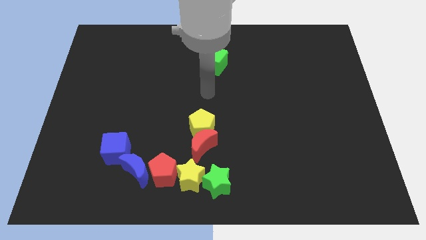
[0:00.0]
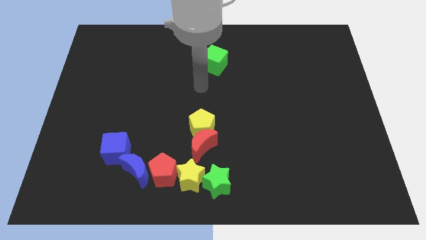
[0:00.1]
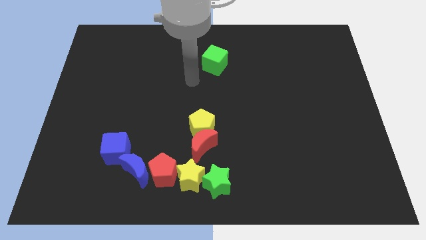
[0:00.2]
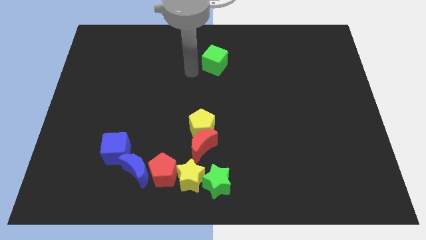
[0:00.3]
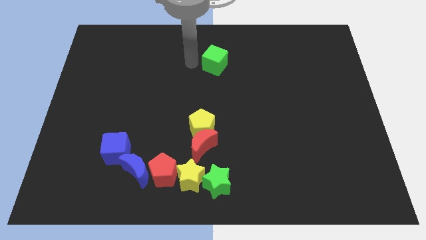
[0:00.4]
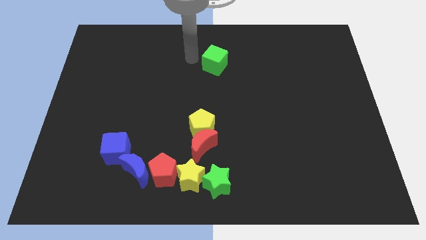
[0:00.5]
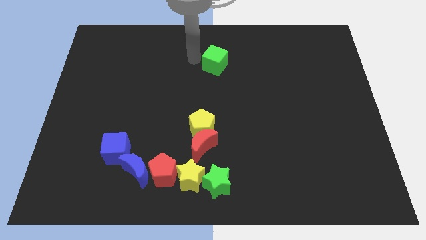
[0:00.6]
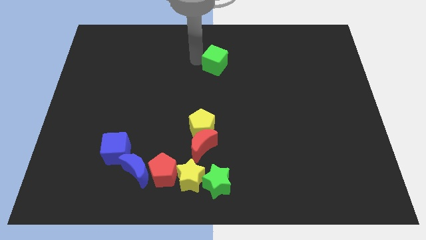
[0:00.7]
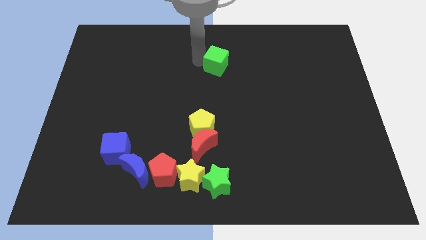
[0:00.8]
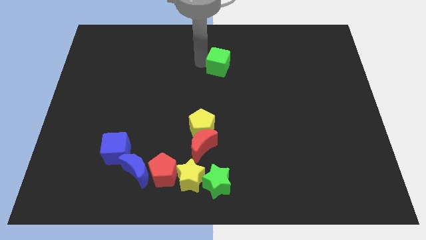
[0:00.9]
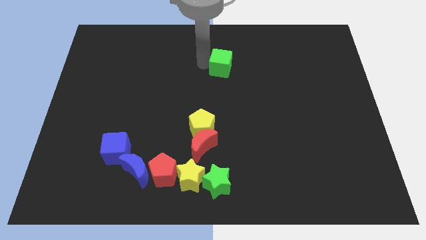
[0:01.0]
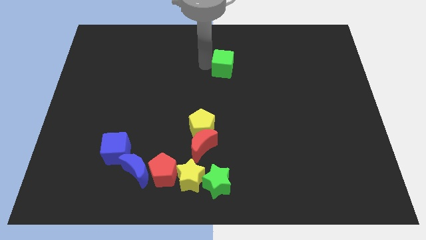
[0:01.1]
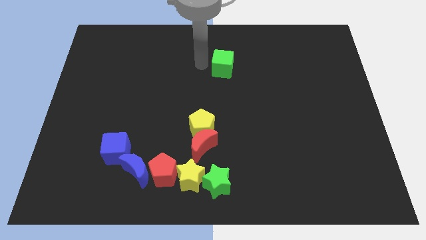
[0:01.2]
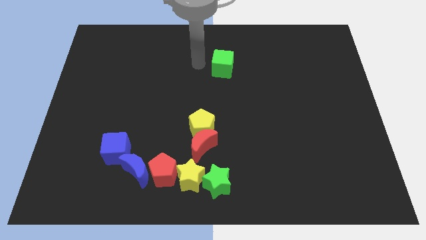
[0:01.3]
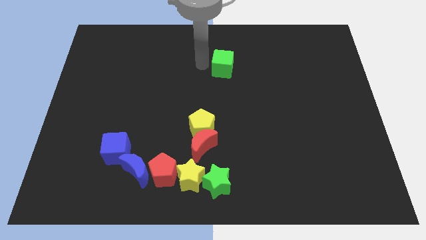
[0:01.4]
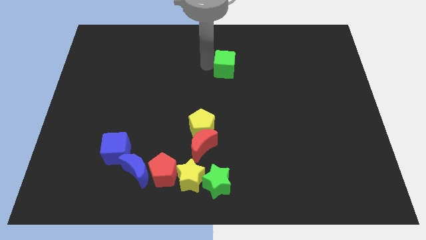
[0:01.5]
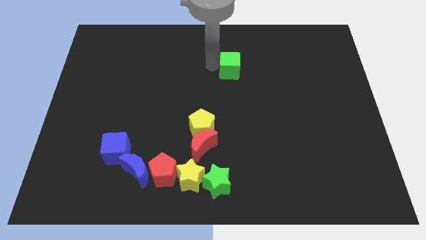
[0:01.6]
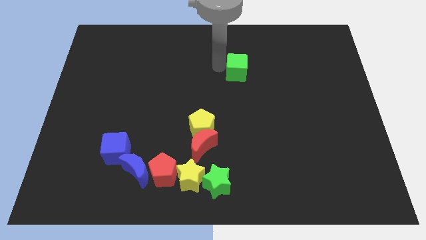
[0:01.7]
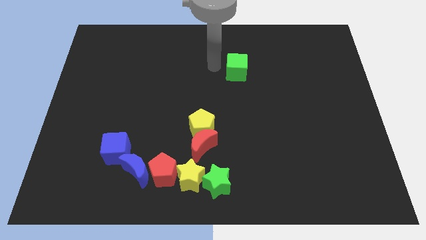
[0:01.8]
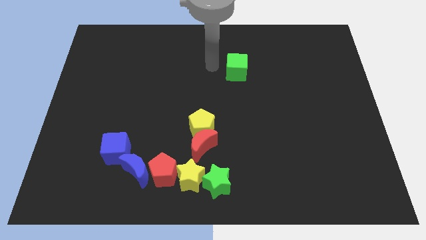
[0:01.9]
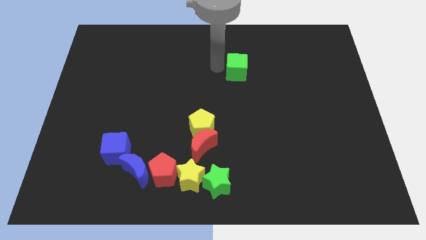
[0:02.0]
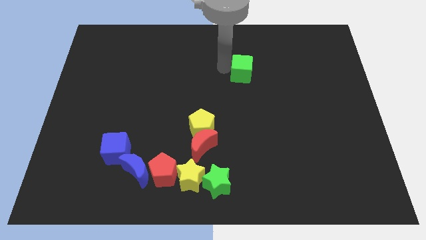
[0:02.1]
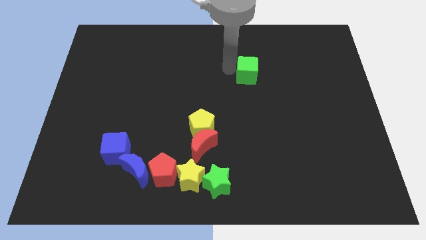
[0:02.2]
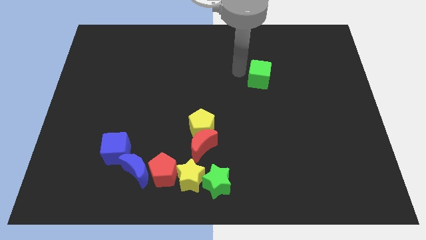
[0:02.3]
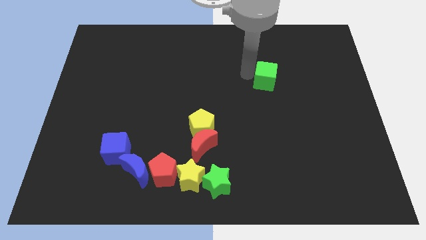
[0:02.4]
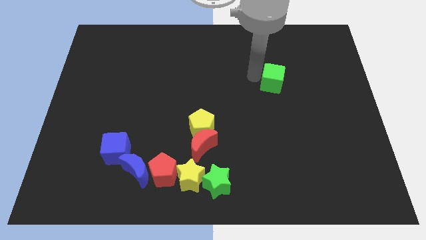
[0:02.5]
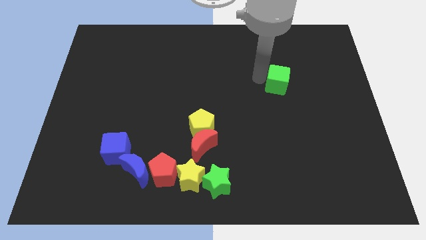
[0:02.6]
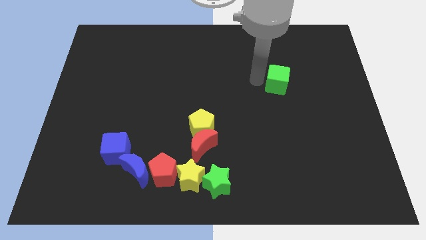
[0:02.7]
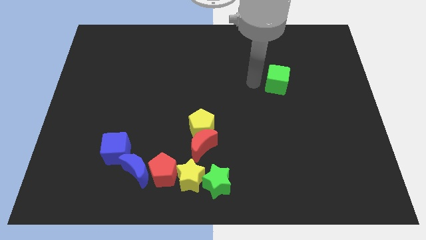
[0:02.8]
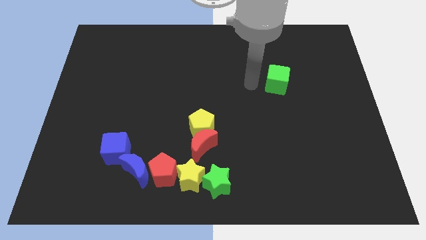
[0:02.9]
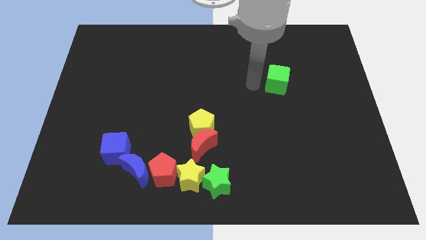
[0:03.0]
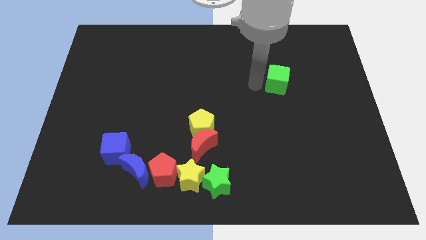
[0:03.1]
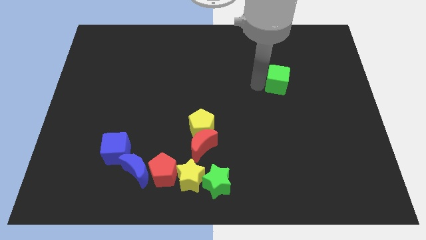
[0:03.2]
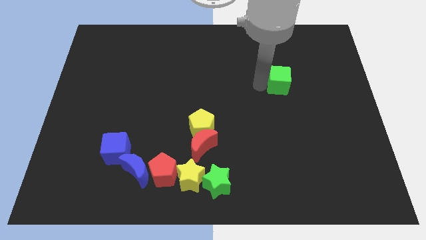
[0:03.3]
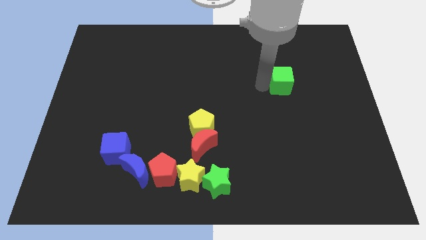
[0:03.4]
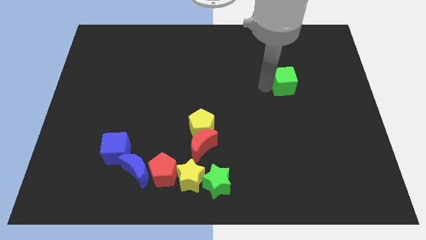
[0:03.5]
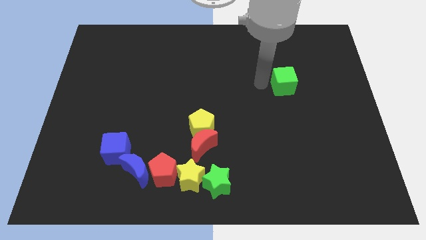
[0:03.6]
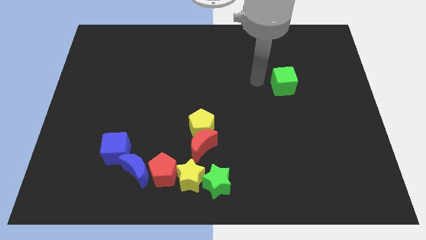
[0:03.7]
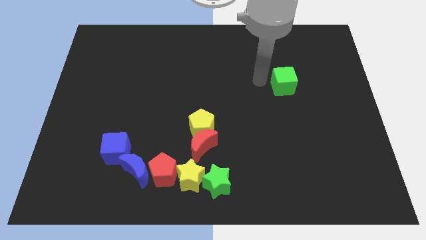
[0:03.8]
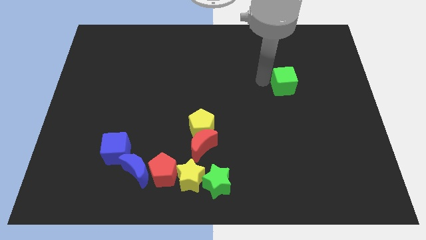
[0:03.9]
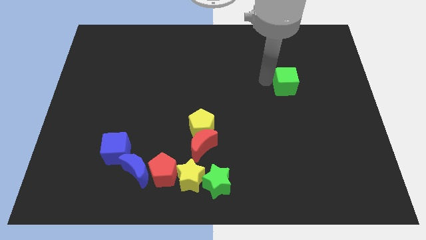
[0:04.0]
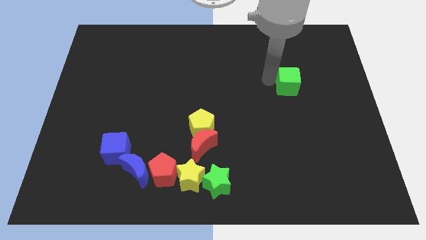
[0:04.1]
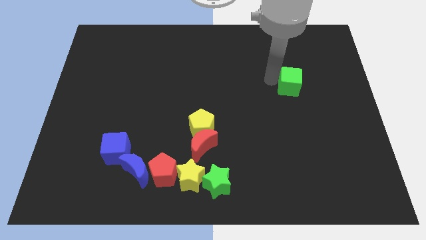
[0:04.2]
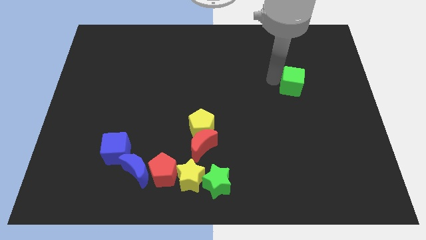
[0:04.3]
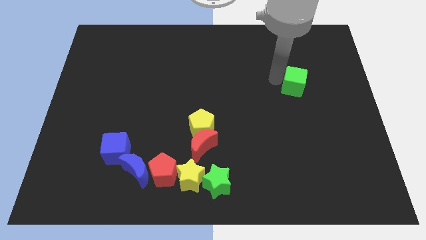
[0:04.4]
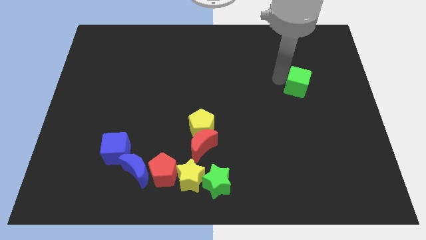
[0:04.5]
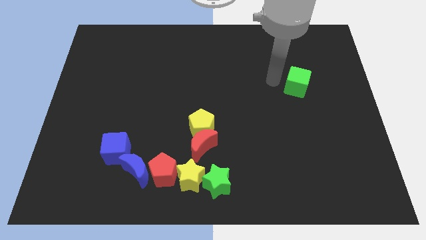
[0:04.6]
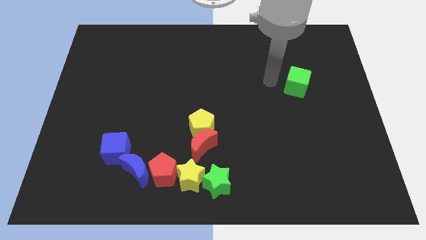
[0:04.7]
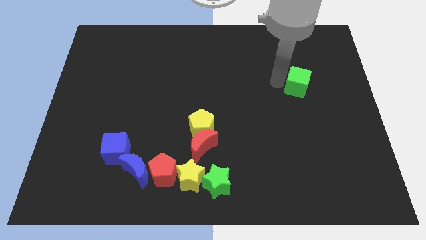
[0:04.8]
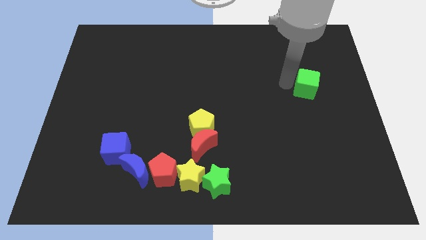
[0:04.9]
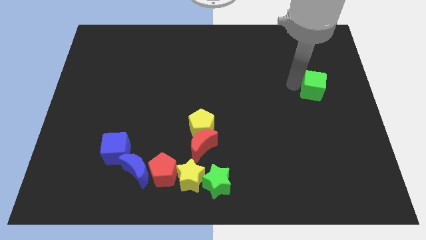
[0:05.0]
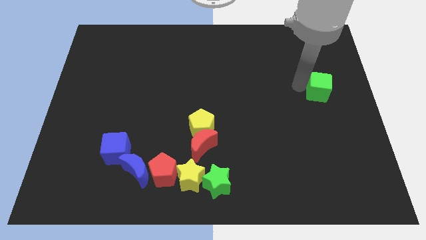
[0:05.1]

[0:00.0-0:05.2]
push the green cube to the right side

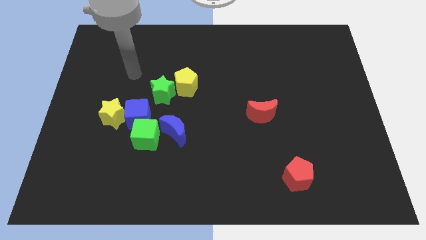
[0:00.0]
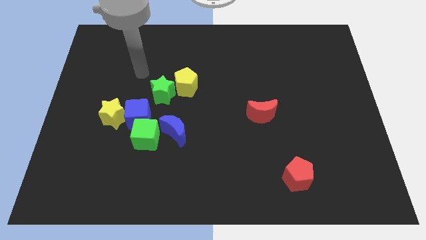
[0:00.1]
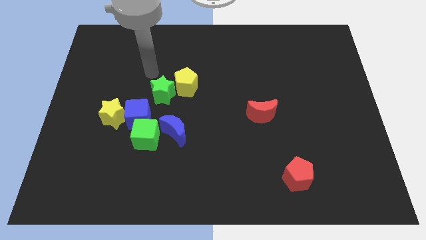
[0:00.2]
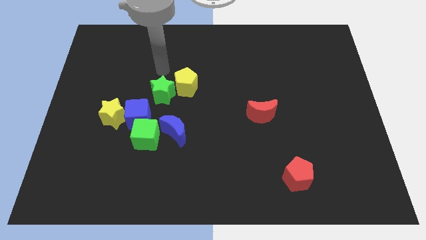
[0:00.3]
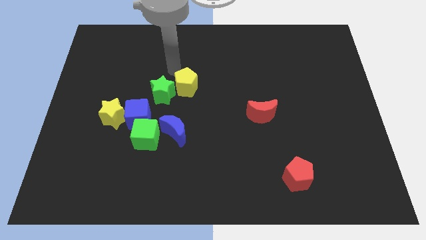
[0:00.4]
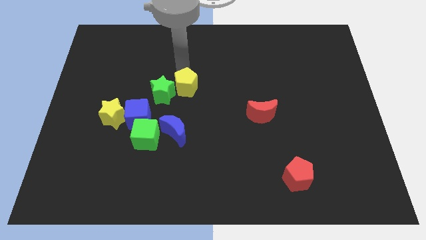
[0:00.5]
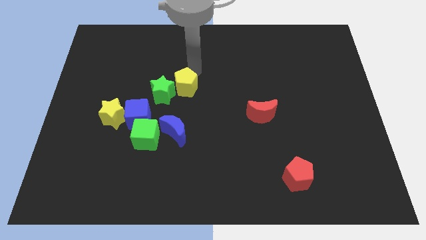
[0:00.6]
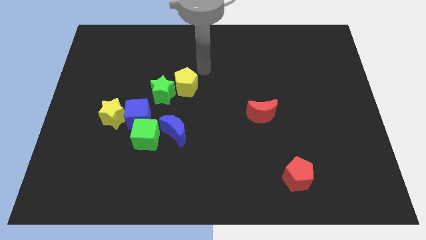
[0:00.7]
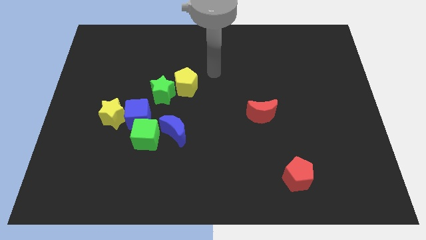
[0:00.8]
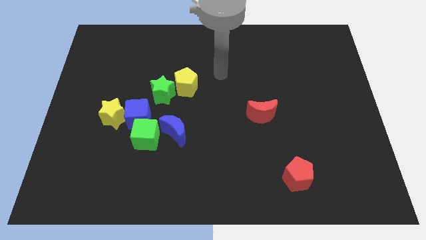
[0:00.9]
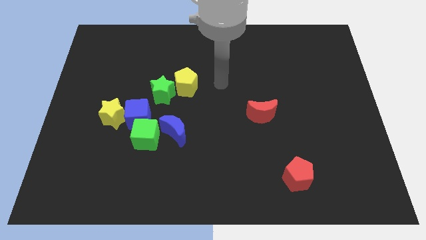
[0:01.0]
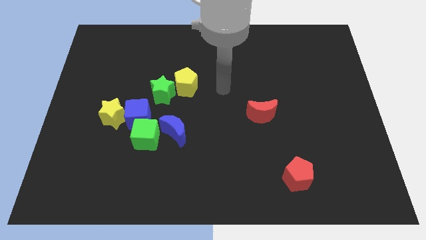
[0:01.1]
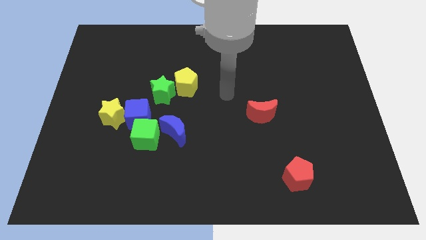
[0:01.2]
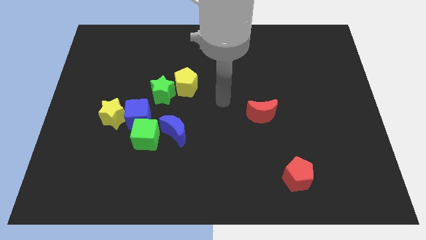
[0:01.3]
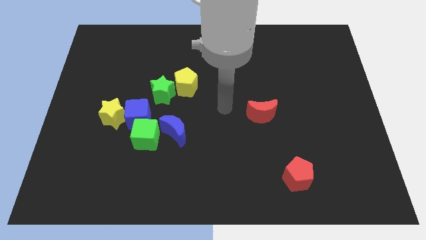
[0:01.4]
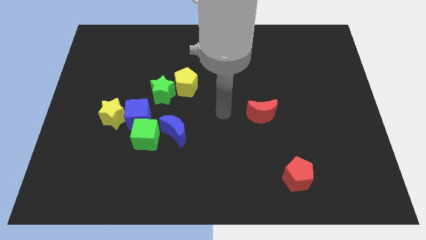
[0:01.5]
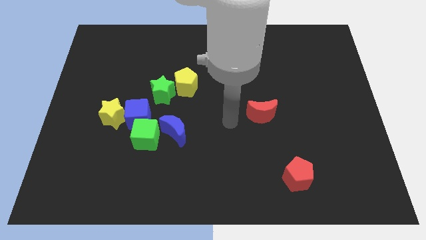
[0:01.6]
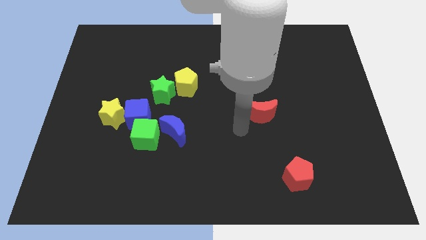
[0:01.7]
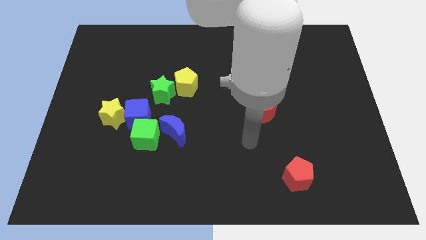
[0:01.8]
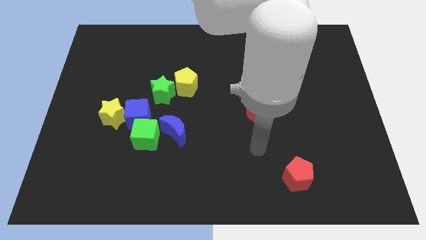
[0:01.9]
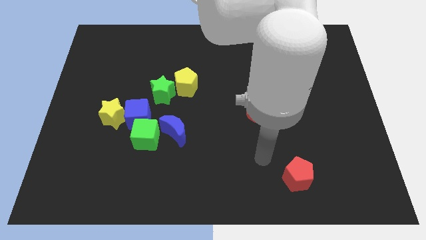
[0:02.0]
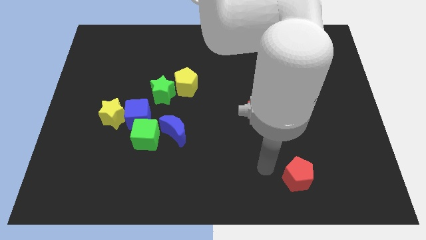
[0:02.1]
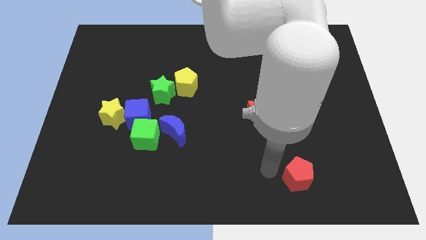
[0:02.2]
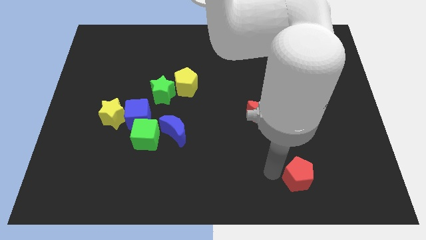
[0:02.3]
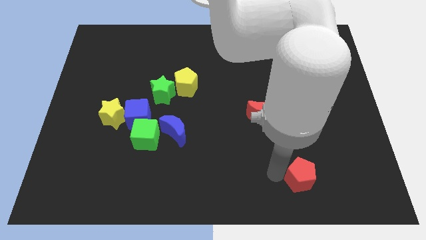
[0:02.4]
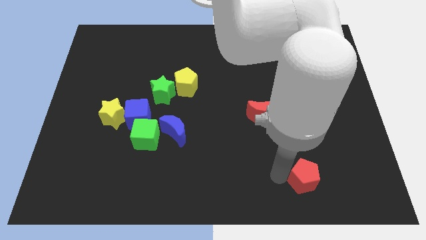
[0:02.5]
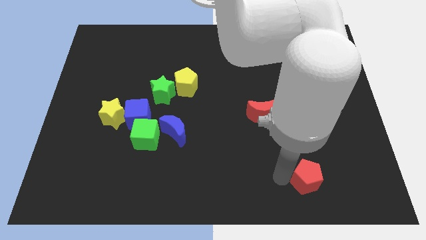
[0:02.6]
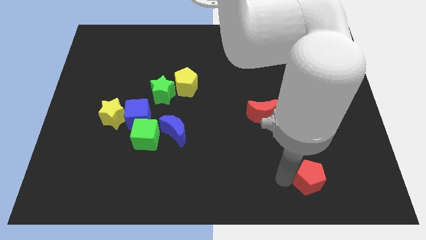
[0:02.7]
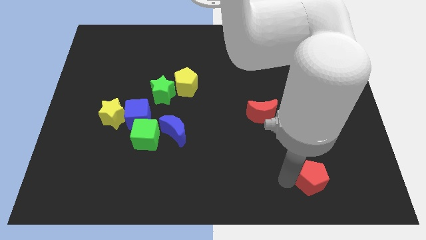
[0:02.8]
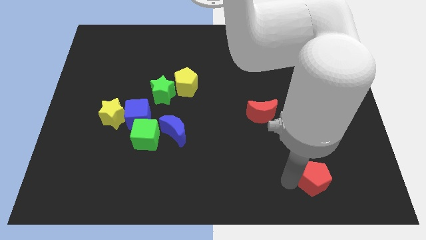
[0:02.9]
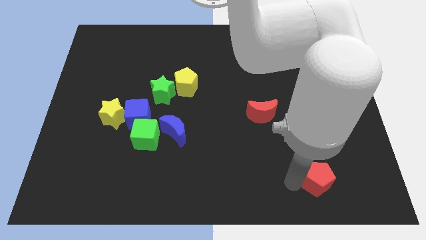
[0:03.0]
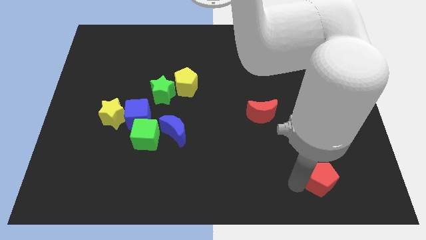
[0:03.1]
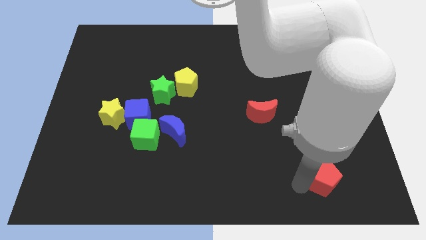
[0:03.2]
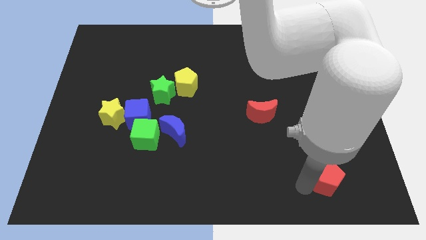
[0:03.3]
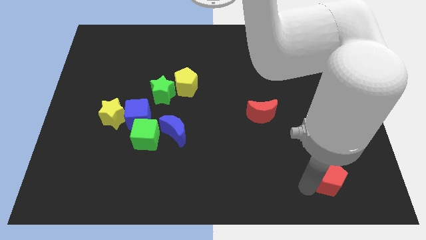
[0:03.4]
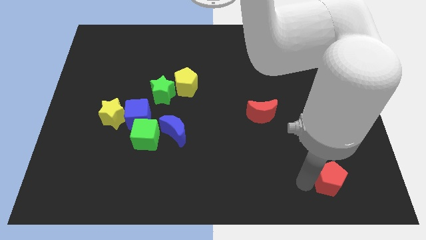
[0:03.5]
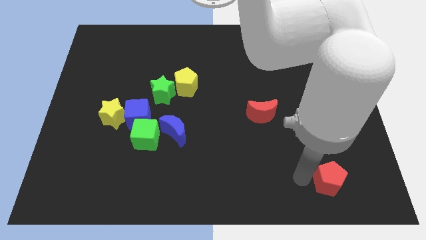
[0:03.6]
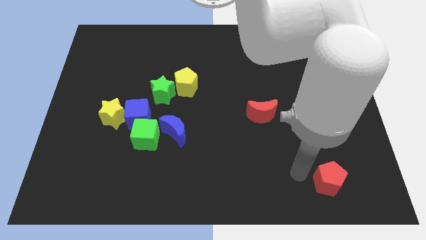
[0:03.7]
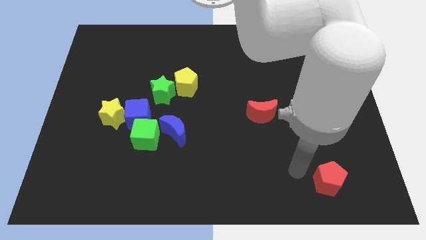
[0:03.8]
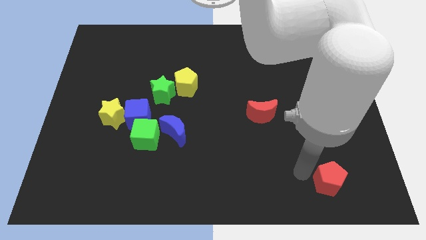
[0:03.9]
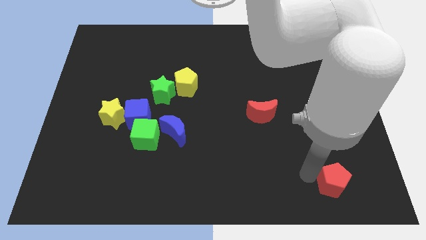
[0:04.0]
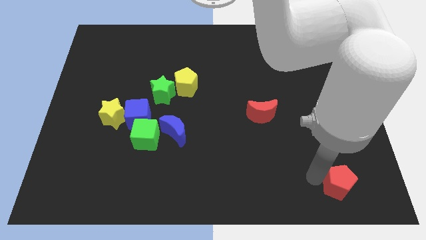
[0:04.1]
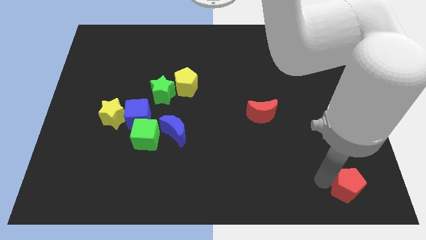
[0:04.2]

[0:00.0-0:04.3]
move the red pentagon to the bottom right corner
